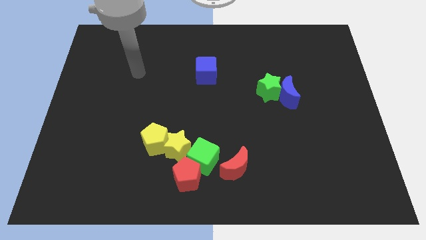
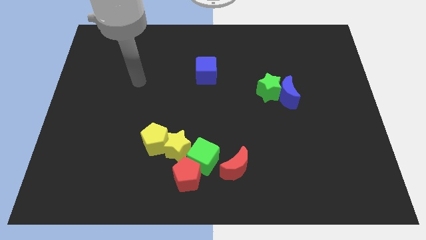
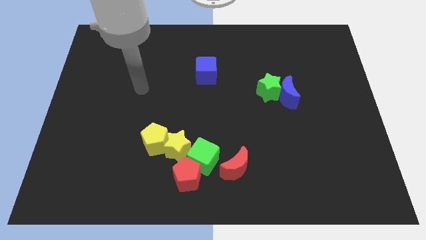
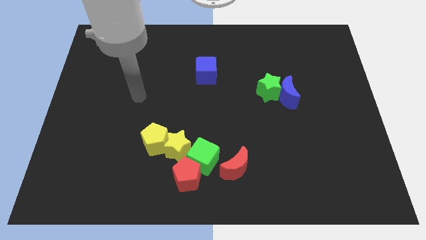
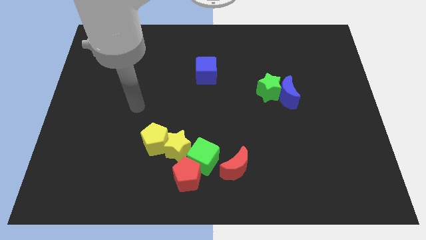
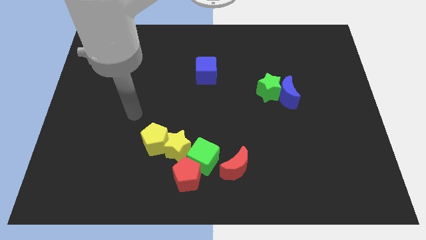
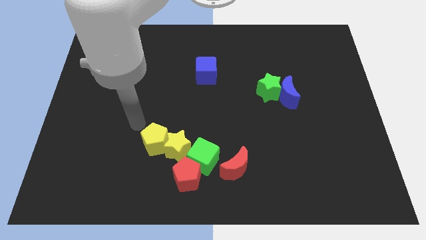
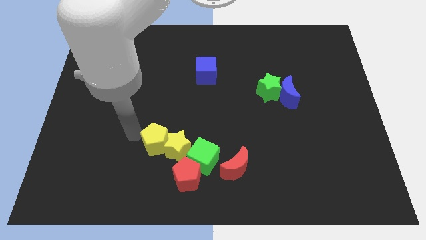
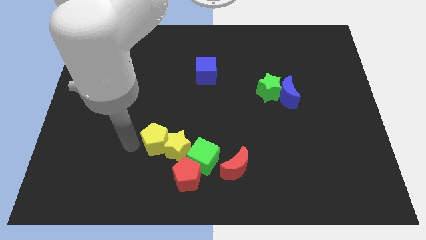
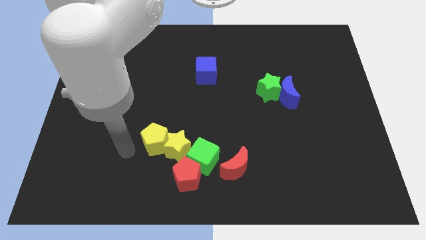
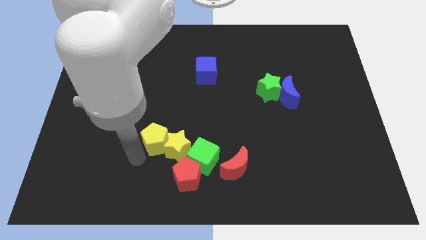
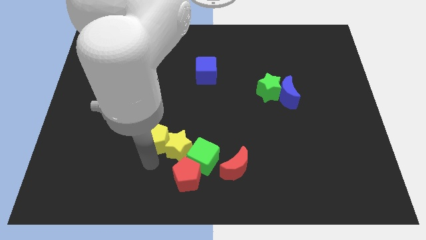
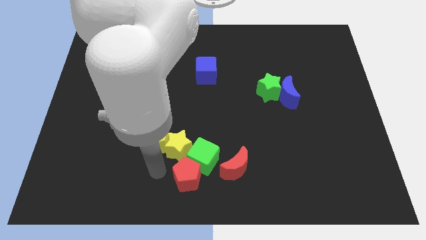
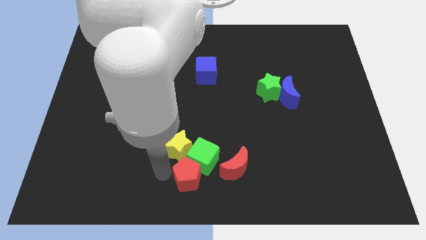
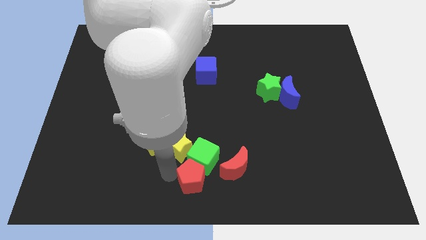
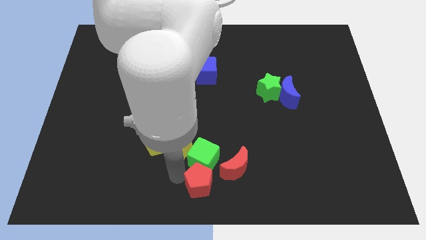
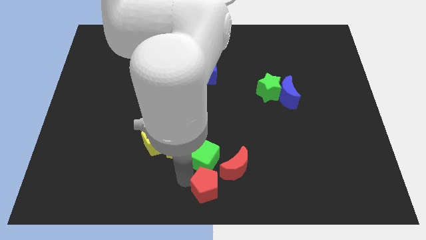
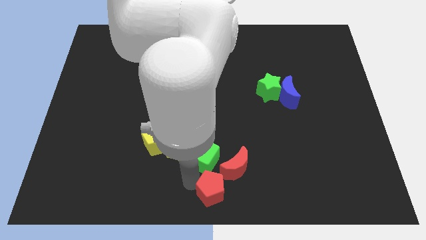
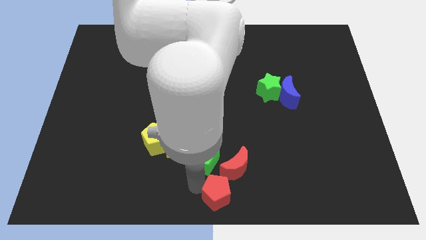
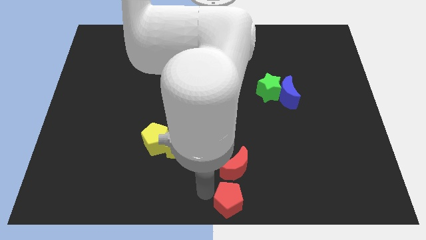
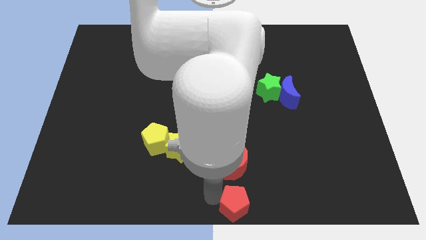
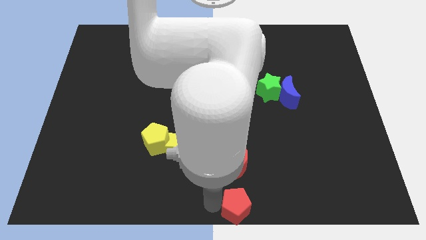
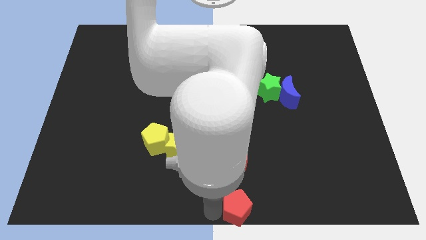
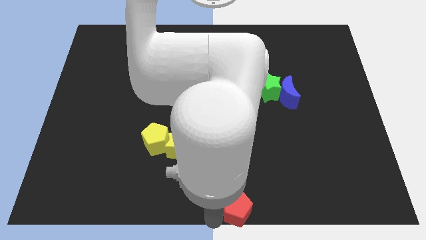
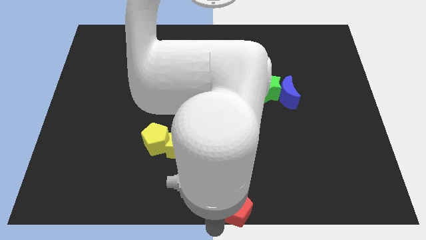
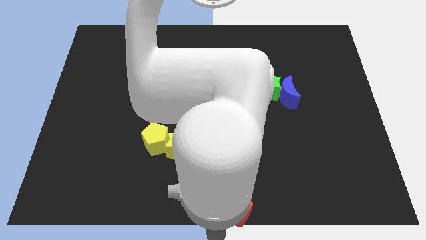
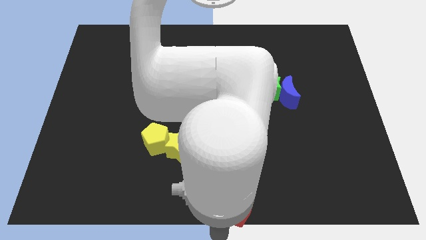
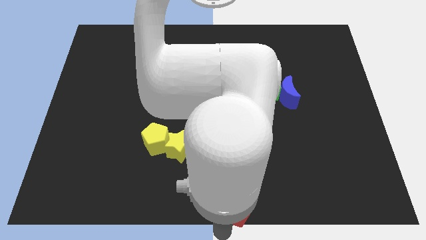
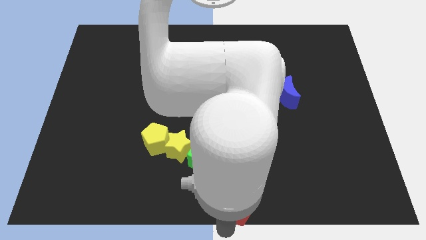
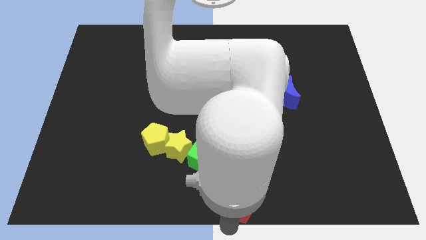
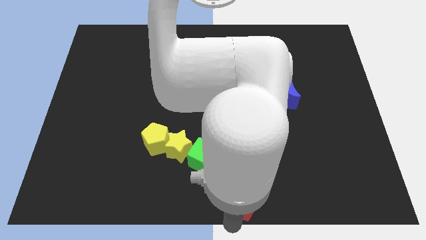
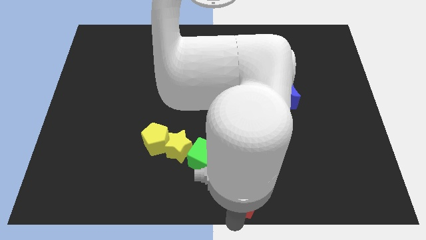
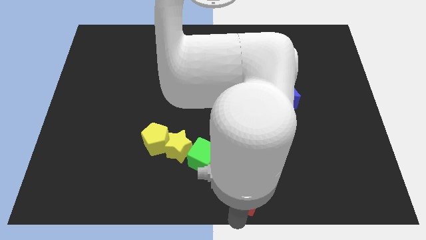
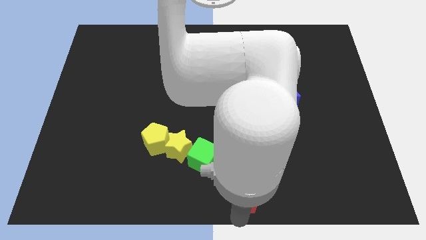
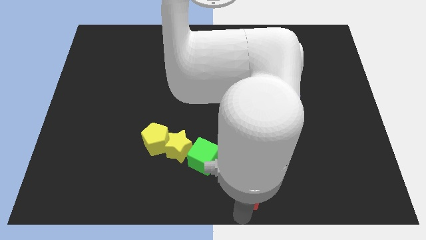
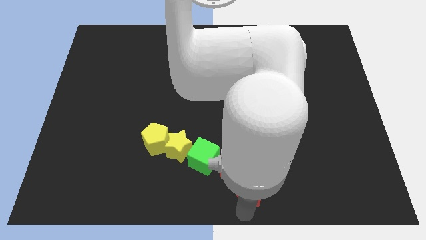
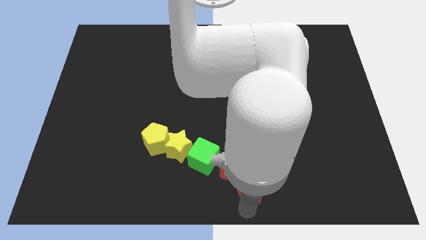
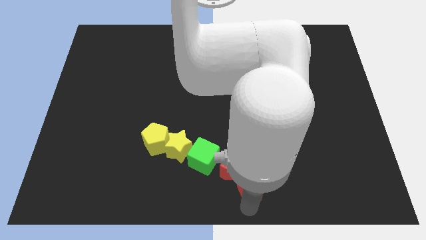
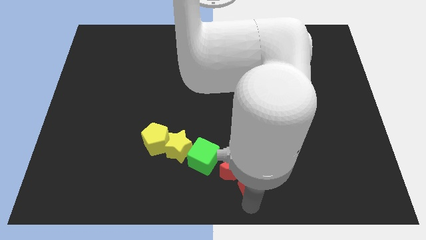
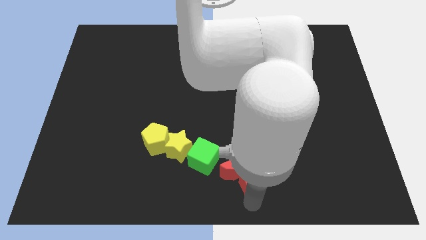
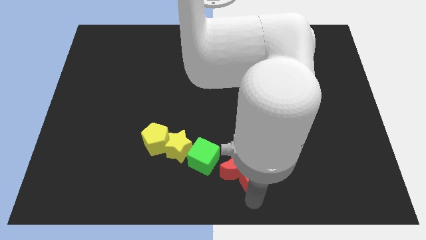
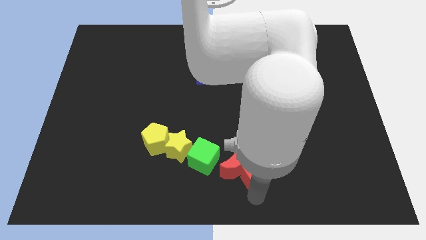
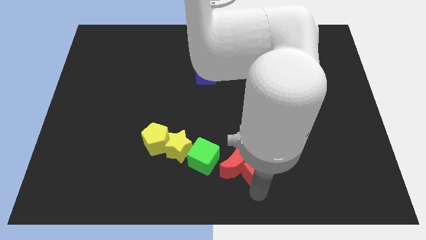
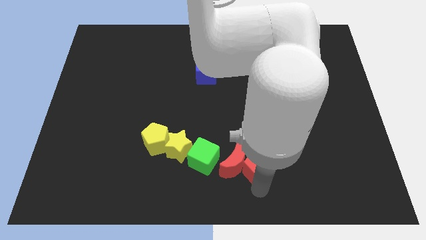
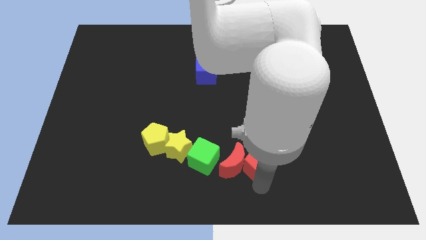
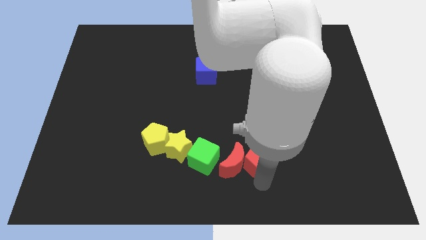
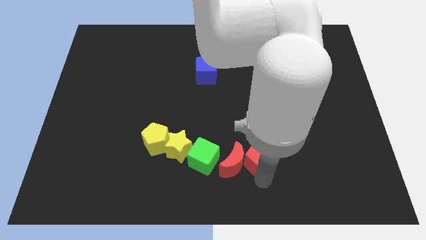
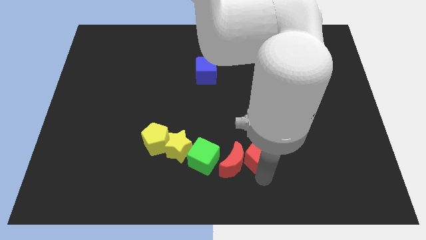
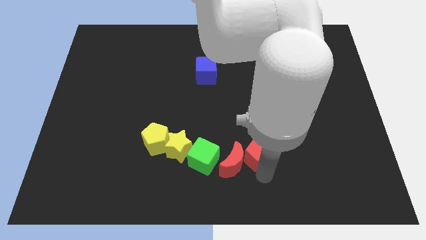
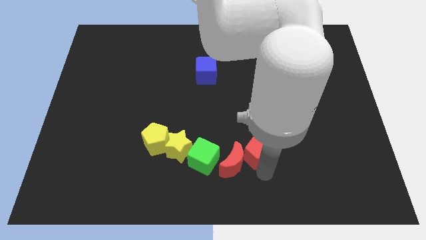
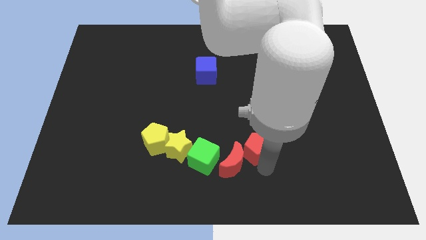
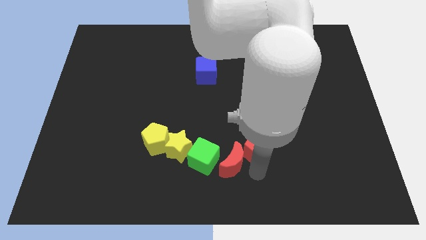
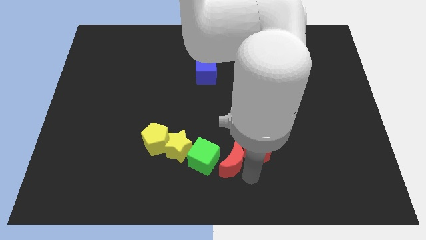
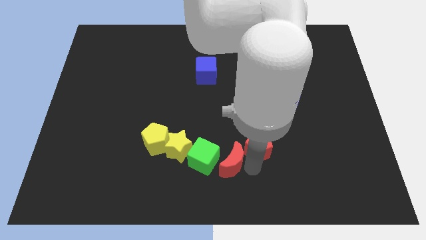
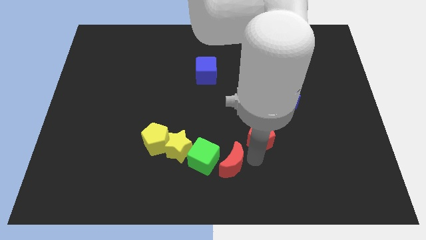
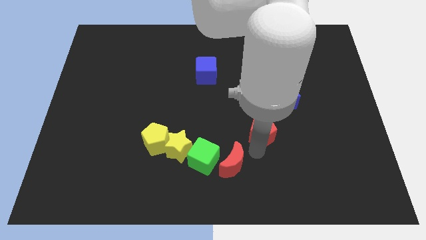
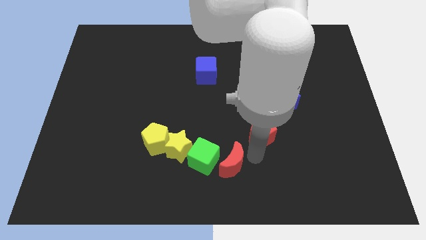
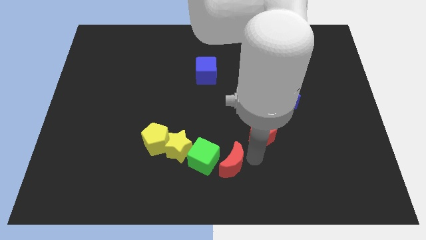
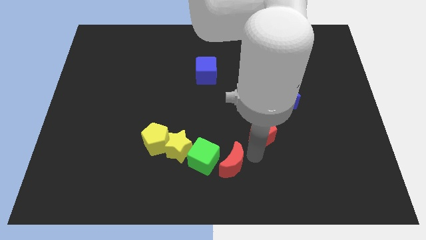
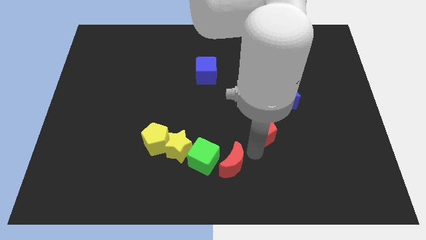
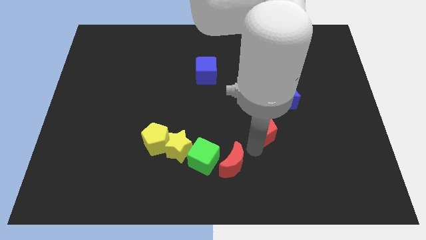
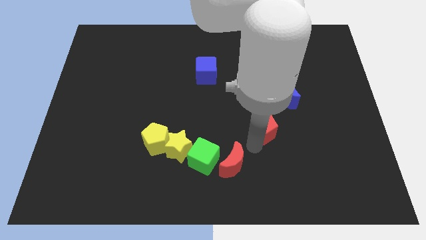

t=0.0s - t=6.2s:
move the red pentagon diagonally down and to the left of the blue moon

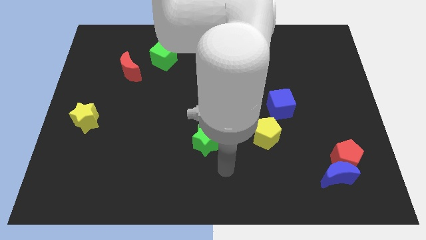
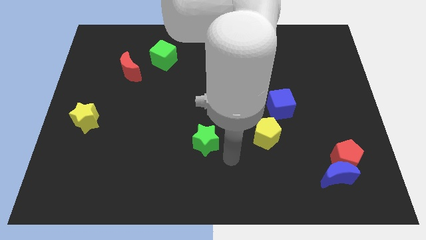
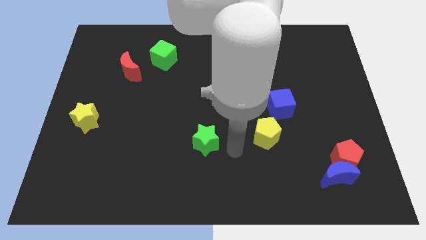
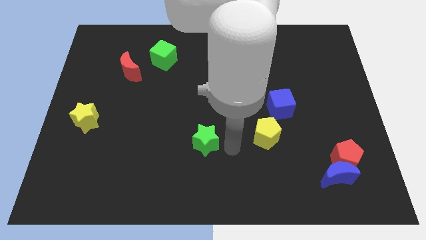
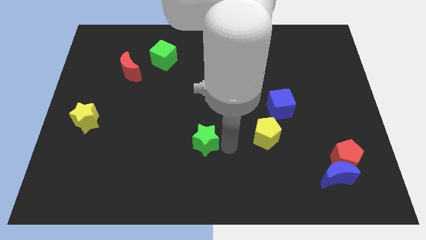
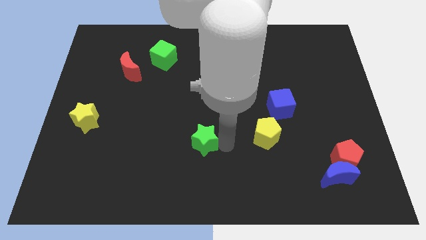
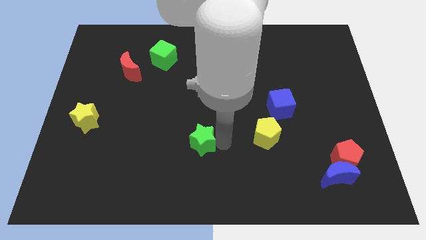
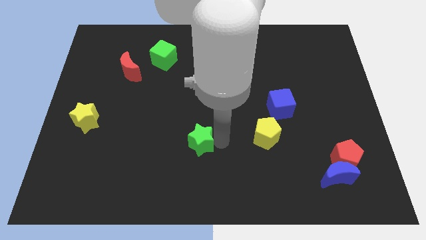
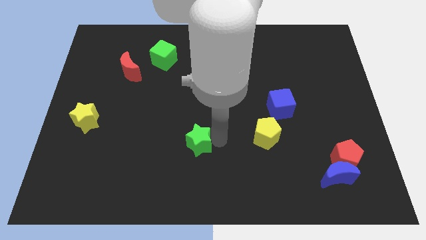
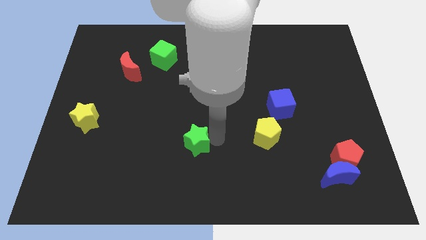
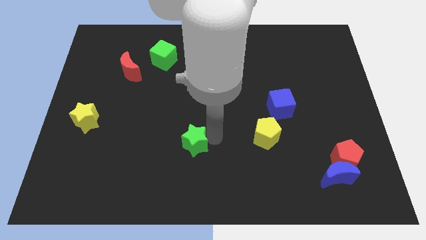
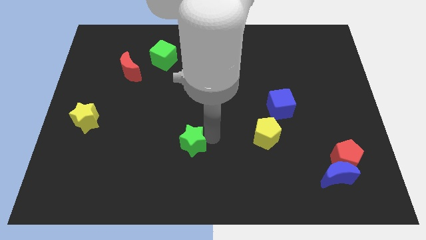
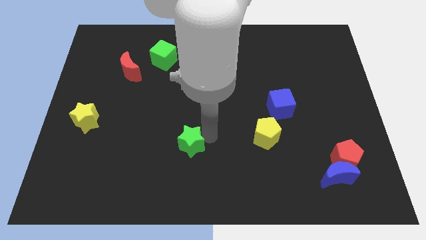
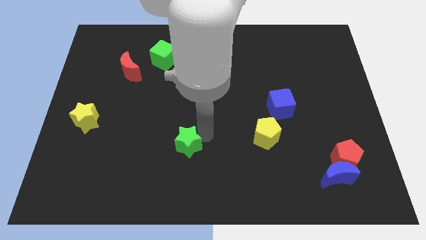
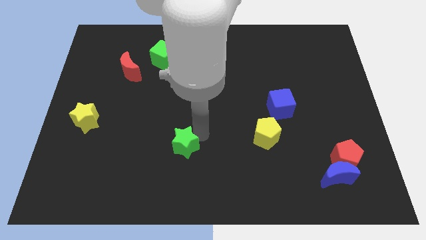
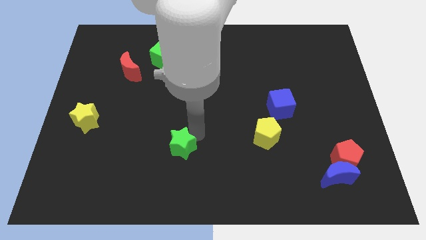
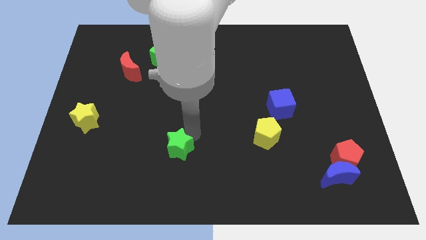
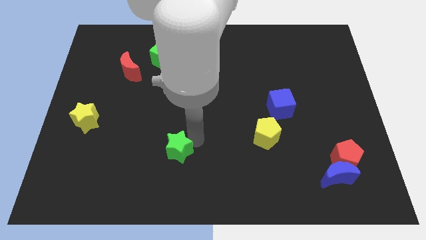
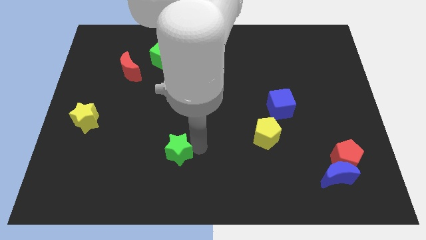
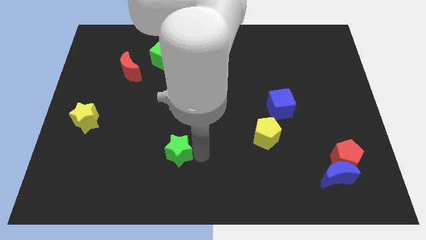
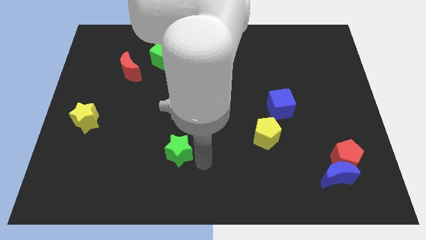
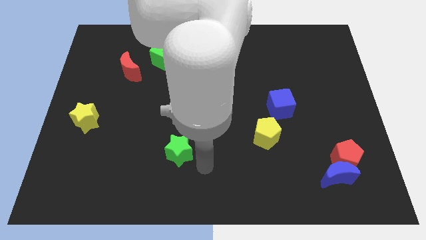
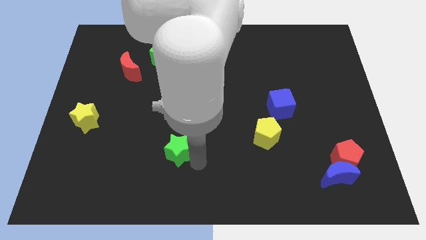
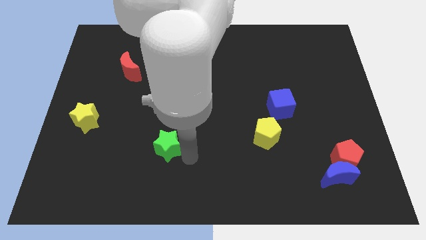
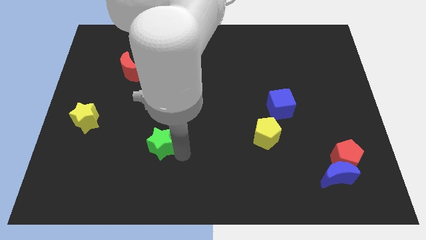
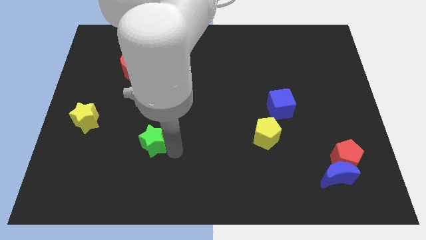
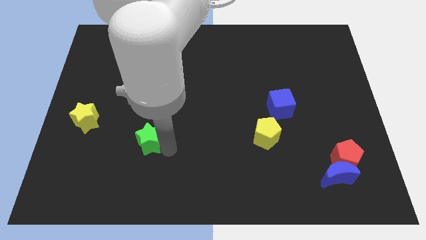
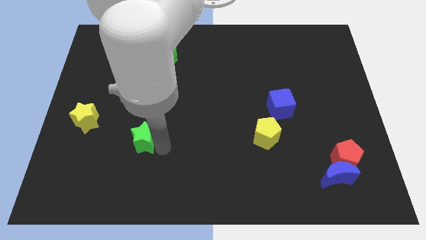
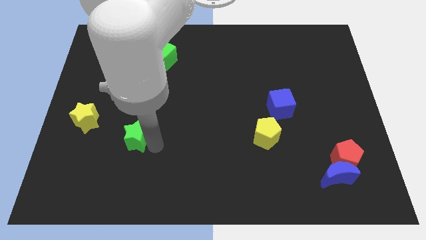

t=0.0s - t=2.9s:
move the green star just right of the yellow star
